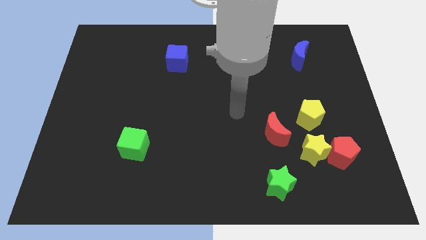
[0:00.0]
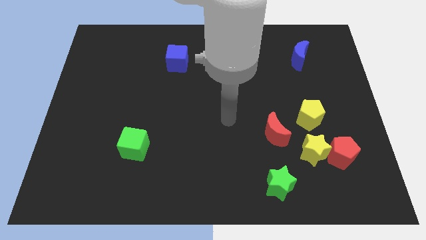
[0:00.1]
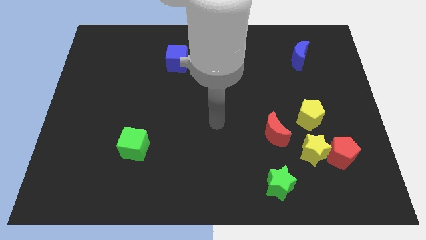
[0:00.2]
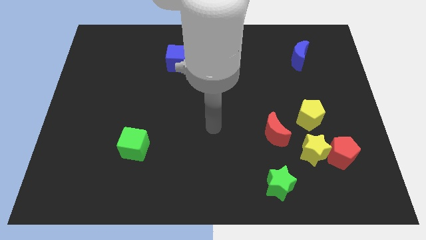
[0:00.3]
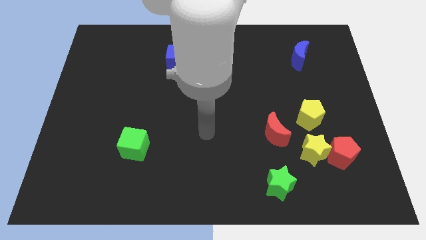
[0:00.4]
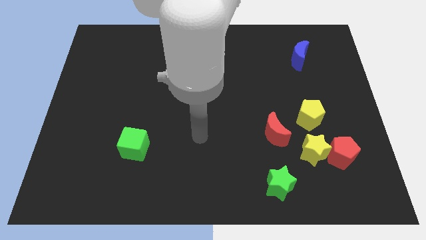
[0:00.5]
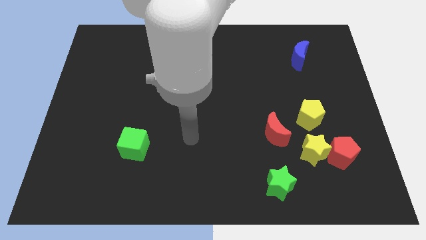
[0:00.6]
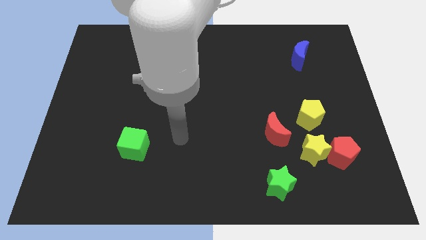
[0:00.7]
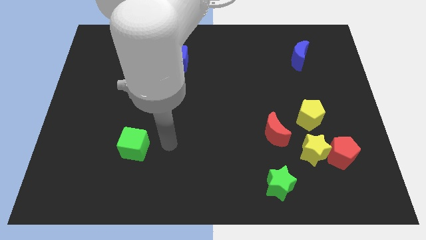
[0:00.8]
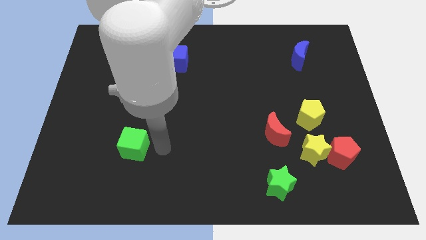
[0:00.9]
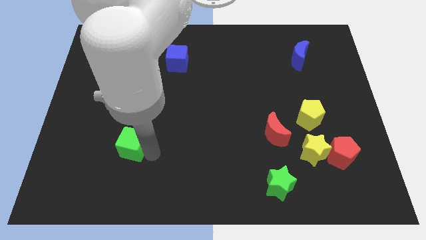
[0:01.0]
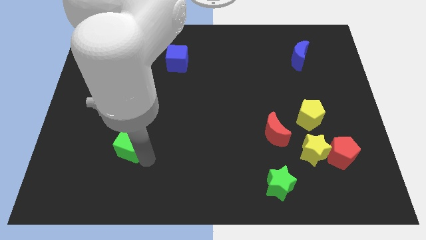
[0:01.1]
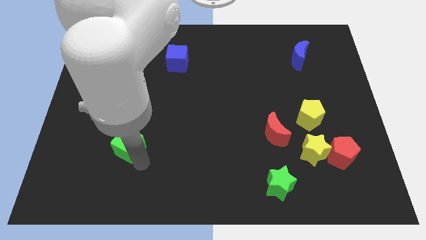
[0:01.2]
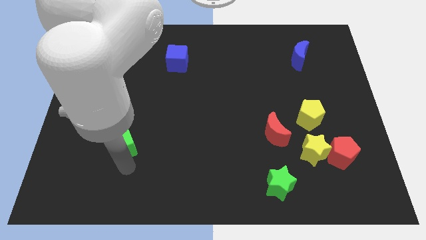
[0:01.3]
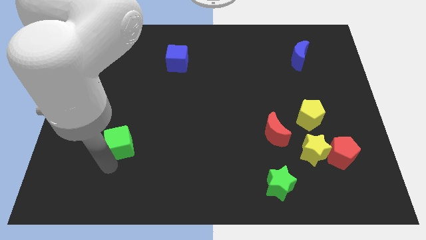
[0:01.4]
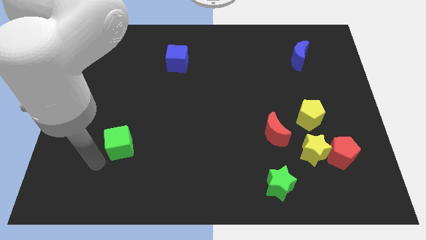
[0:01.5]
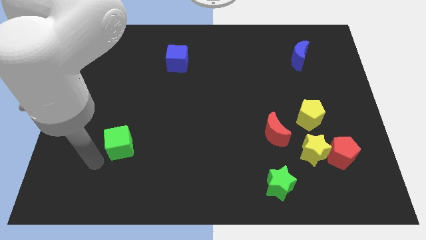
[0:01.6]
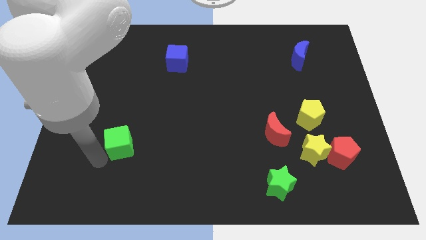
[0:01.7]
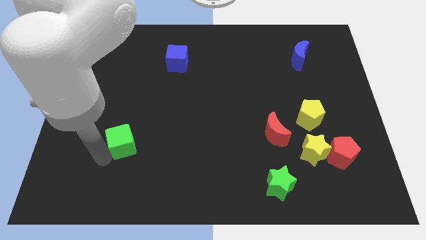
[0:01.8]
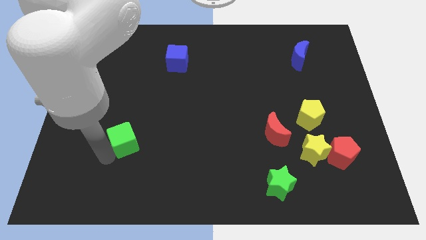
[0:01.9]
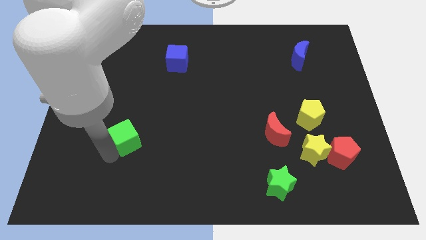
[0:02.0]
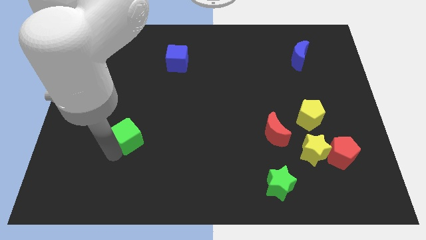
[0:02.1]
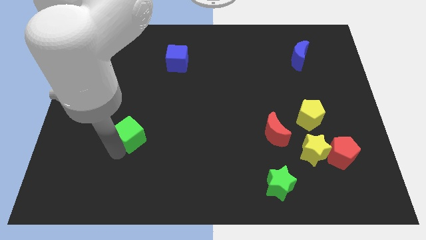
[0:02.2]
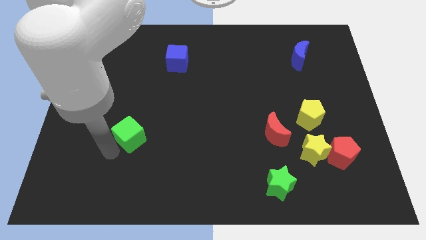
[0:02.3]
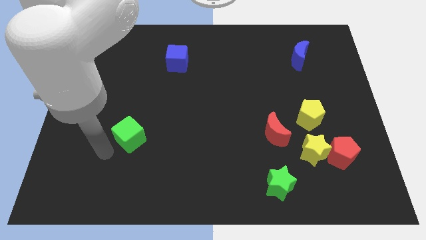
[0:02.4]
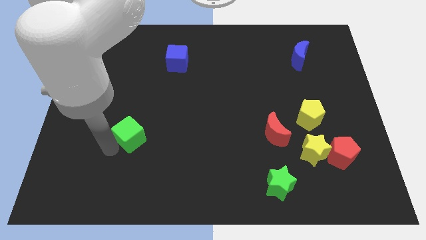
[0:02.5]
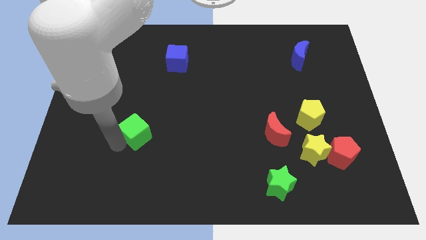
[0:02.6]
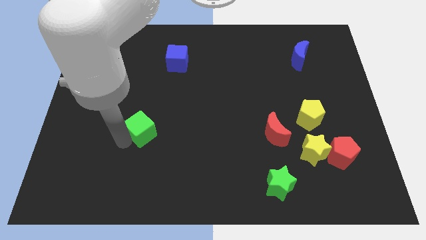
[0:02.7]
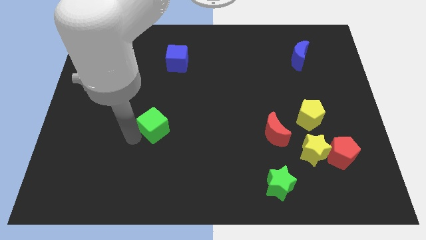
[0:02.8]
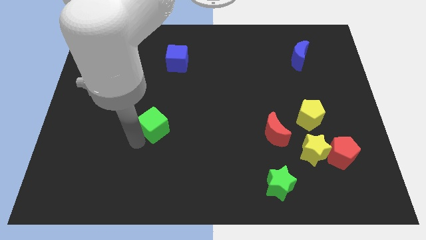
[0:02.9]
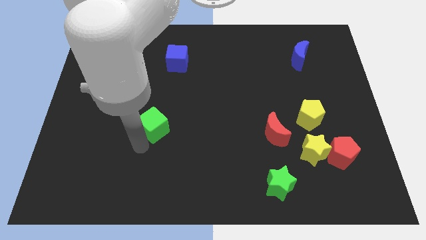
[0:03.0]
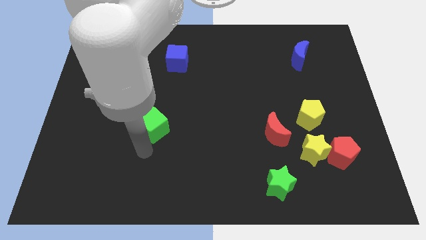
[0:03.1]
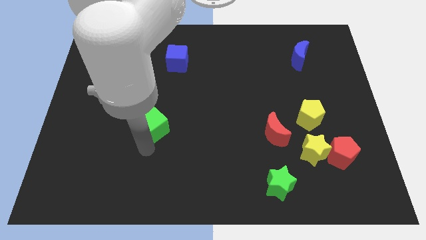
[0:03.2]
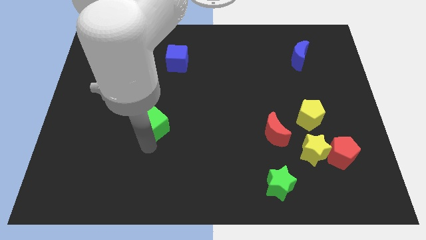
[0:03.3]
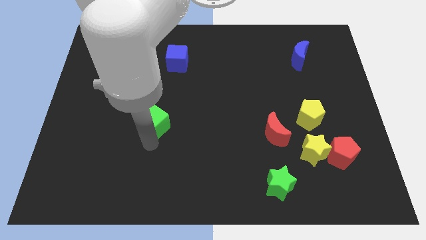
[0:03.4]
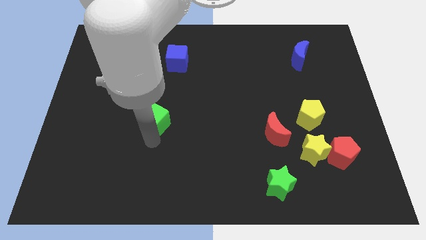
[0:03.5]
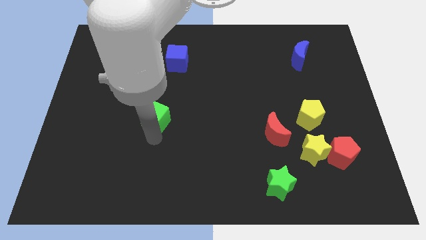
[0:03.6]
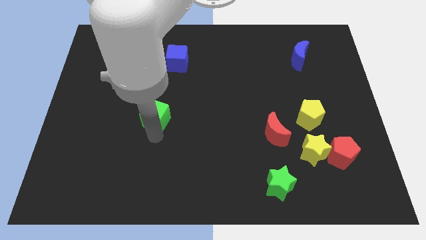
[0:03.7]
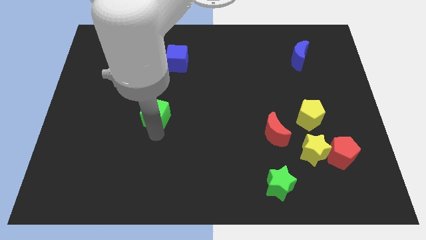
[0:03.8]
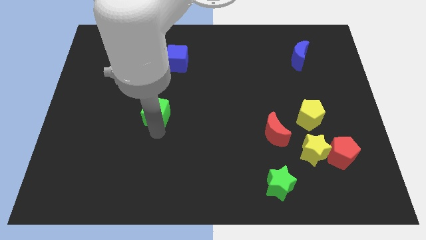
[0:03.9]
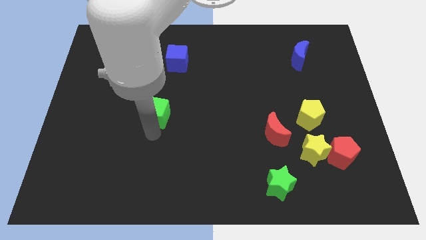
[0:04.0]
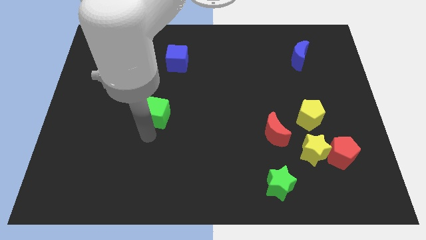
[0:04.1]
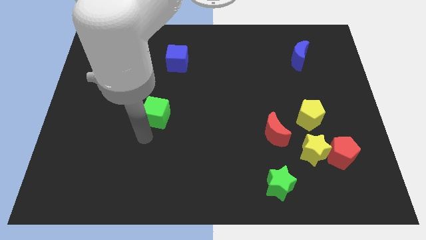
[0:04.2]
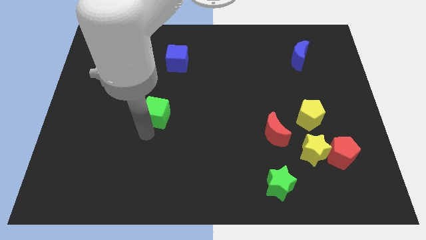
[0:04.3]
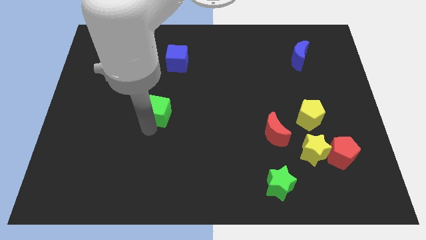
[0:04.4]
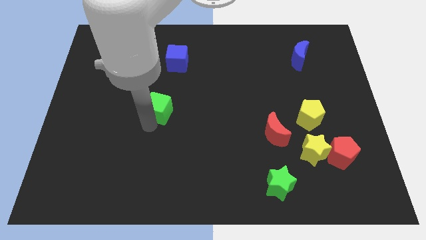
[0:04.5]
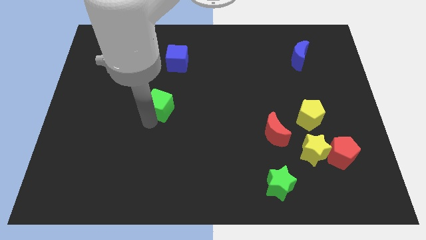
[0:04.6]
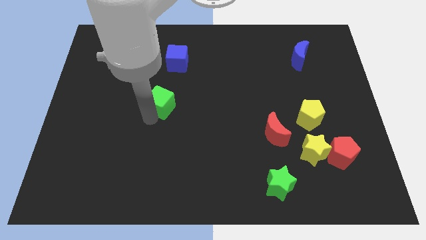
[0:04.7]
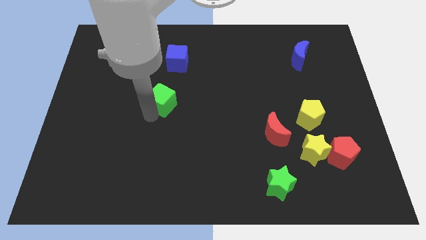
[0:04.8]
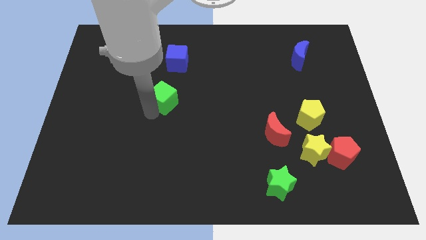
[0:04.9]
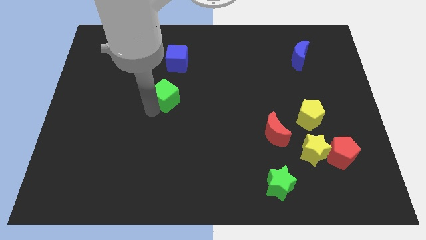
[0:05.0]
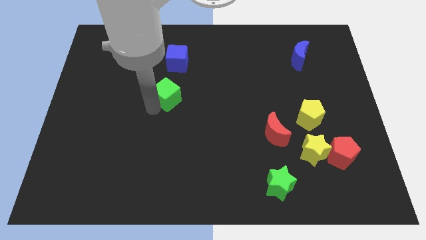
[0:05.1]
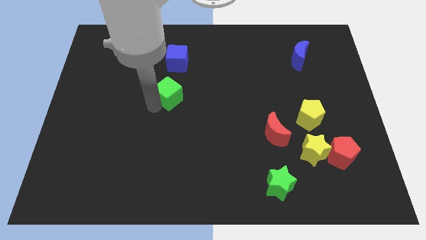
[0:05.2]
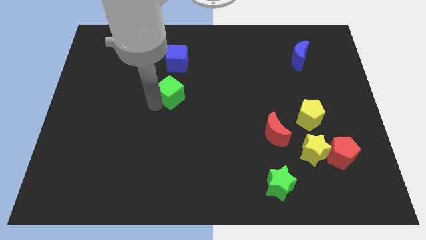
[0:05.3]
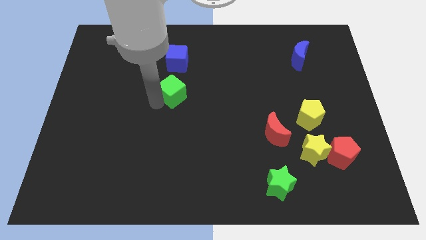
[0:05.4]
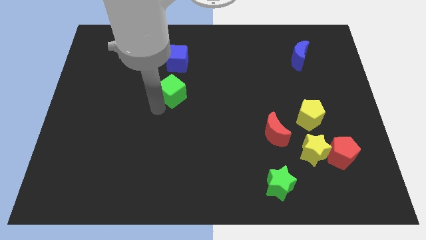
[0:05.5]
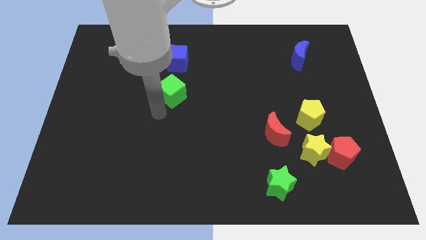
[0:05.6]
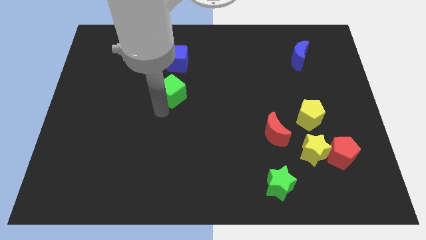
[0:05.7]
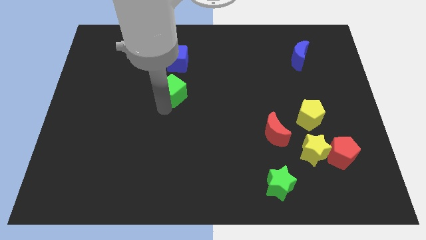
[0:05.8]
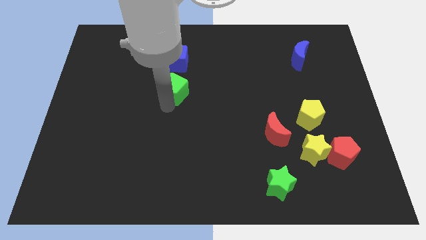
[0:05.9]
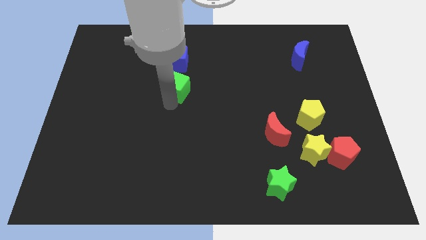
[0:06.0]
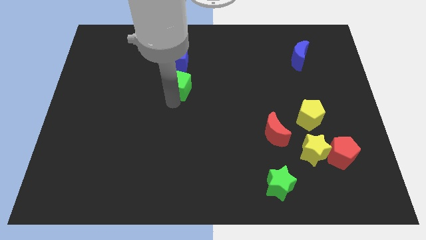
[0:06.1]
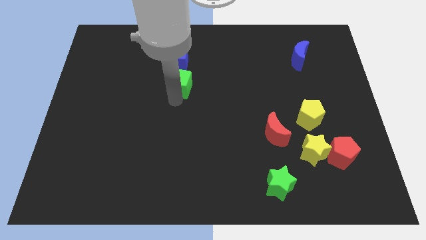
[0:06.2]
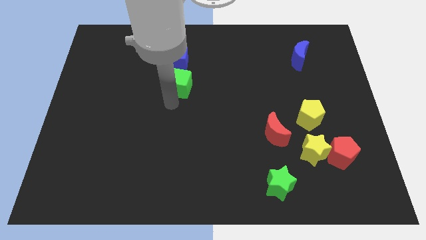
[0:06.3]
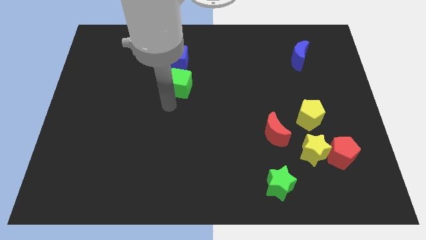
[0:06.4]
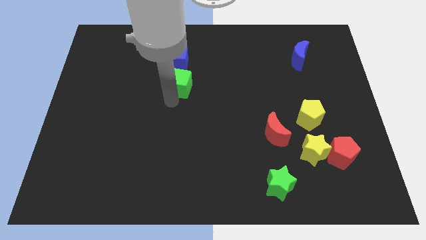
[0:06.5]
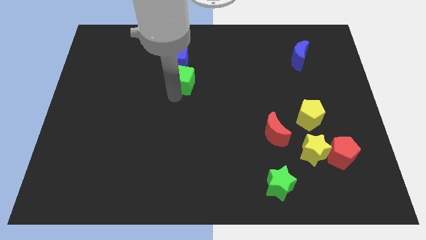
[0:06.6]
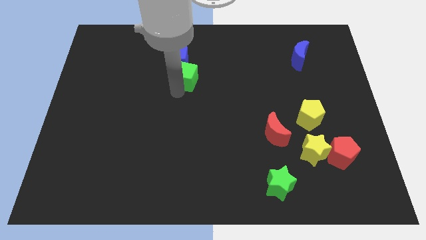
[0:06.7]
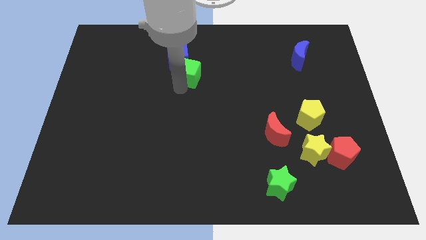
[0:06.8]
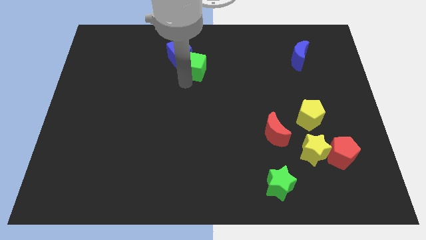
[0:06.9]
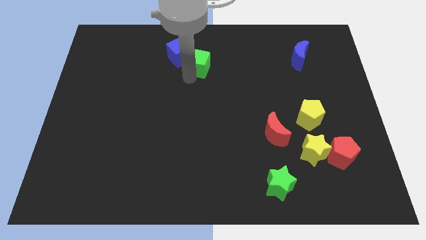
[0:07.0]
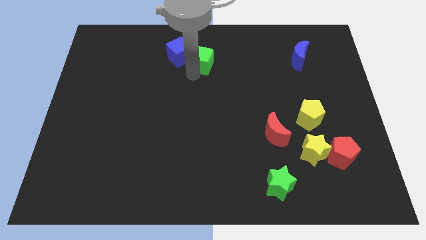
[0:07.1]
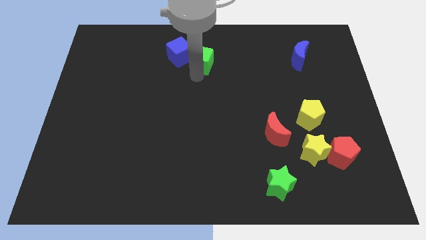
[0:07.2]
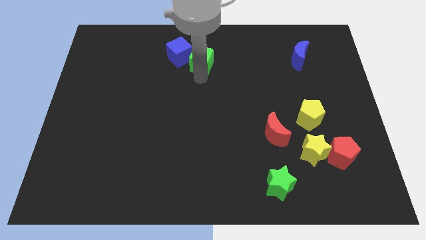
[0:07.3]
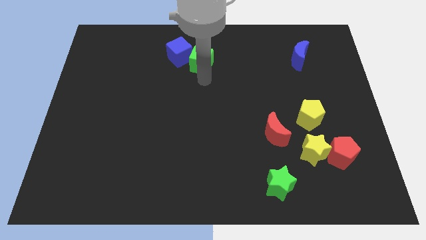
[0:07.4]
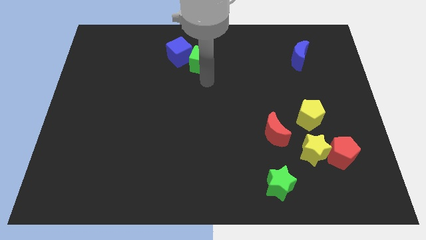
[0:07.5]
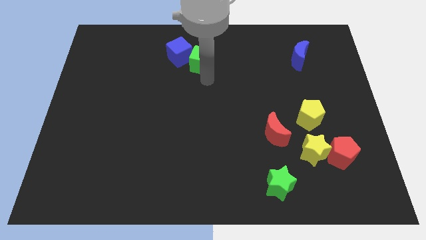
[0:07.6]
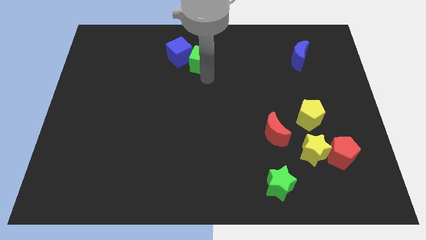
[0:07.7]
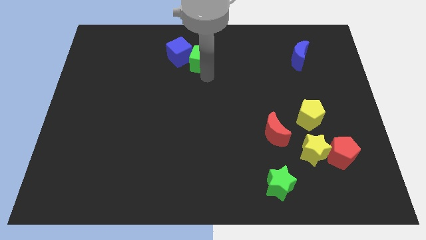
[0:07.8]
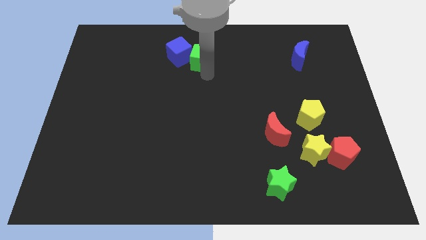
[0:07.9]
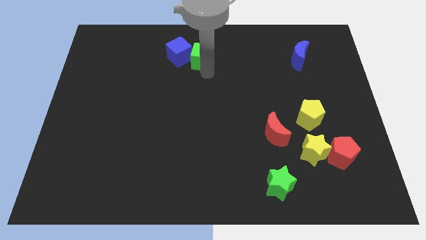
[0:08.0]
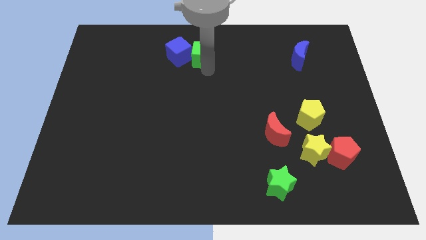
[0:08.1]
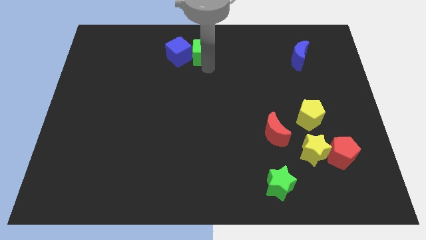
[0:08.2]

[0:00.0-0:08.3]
push the green cube to the top side
